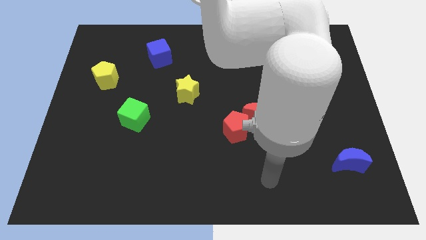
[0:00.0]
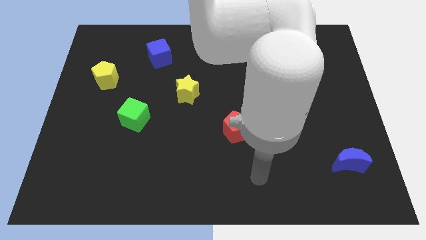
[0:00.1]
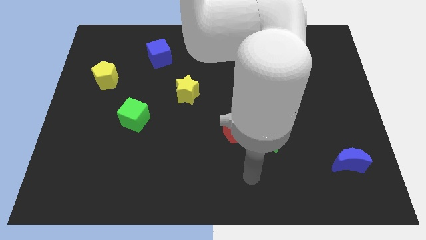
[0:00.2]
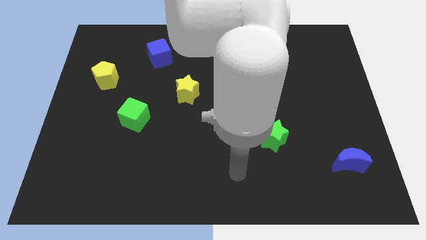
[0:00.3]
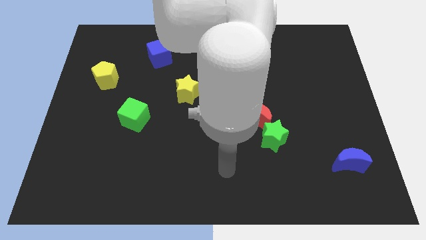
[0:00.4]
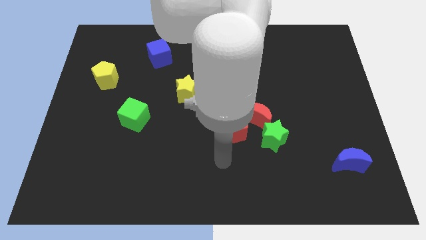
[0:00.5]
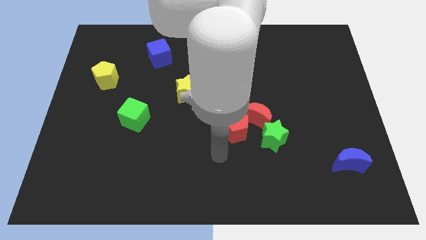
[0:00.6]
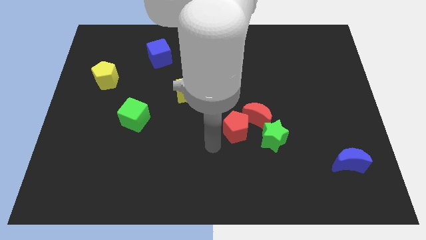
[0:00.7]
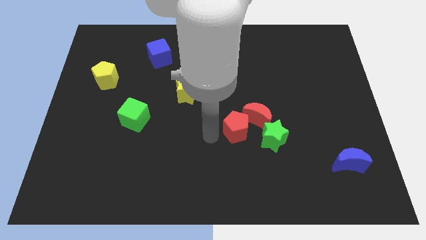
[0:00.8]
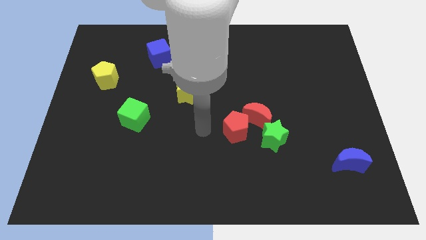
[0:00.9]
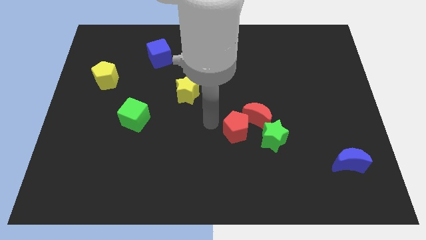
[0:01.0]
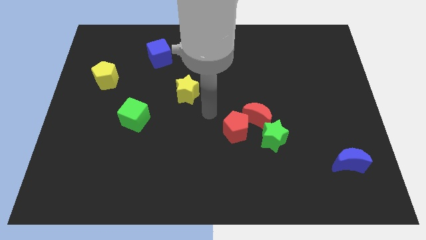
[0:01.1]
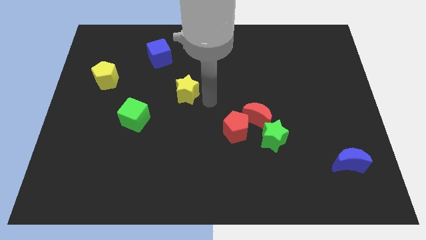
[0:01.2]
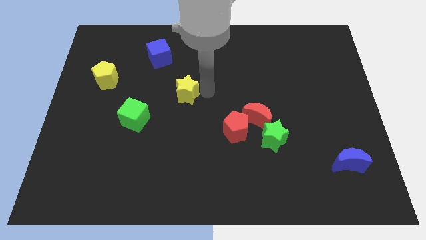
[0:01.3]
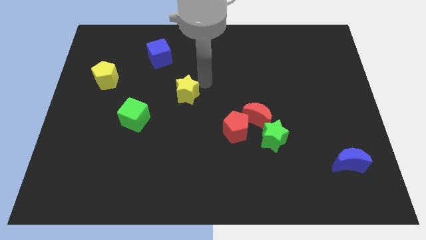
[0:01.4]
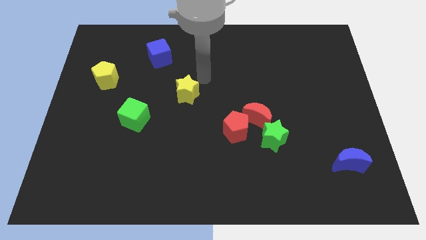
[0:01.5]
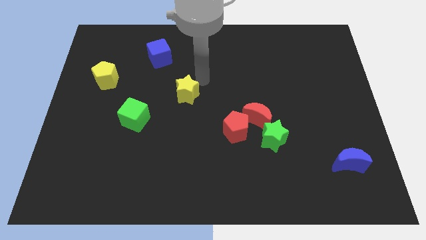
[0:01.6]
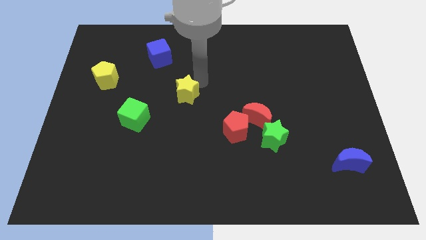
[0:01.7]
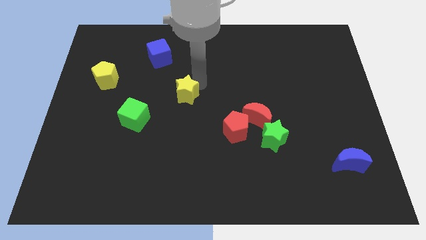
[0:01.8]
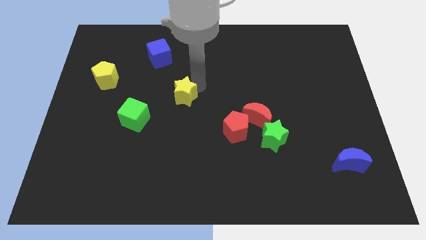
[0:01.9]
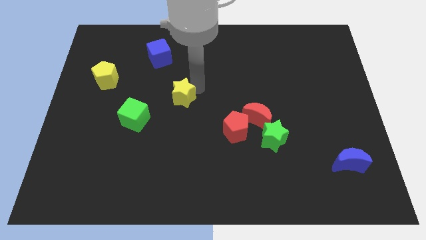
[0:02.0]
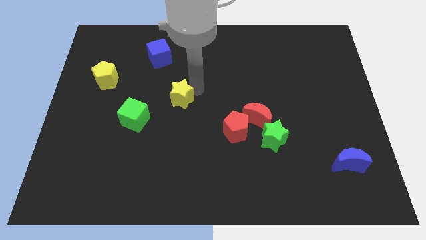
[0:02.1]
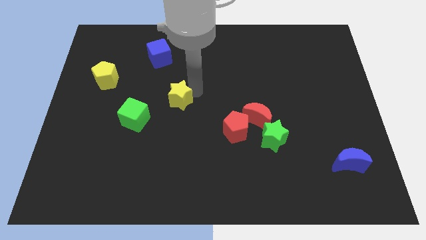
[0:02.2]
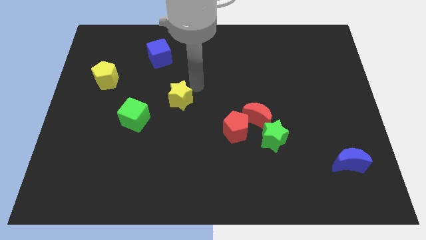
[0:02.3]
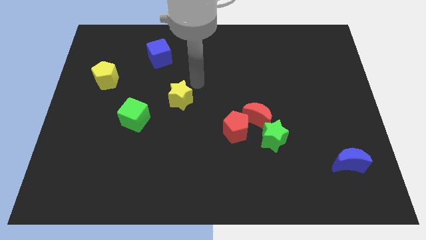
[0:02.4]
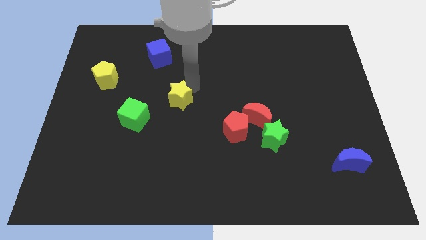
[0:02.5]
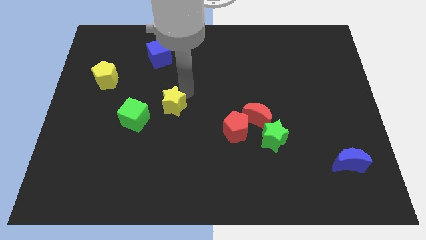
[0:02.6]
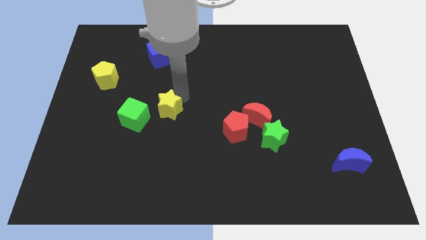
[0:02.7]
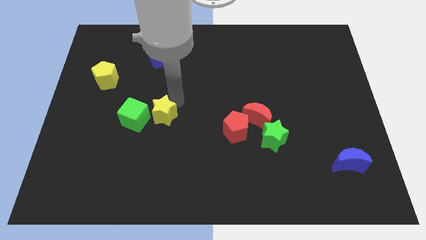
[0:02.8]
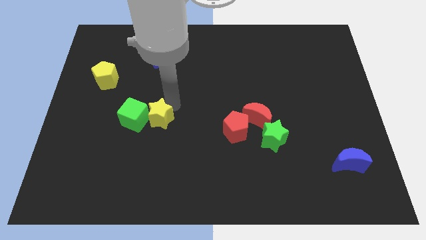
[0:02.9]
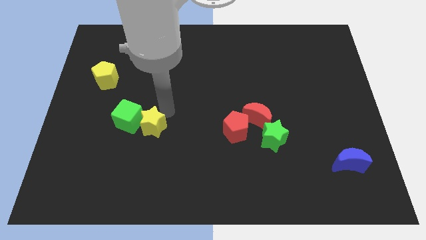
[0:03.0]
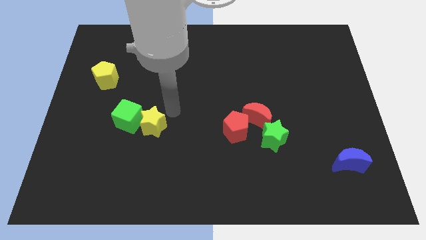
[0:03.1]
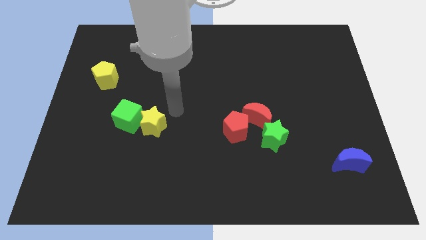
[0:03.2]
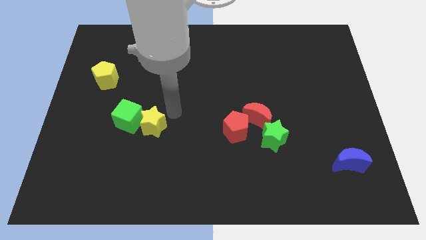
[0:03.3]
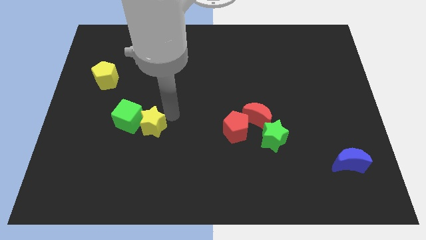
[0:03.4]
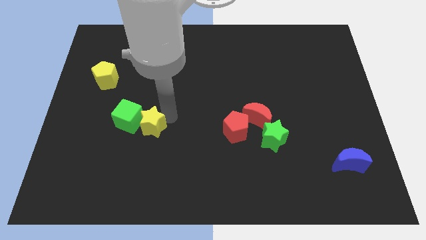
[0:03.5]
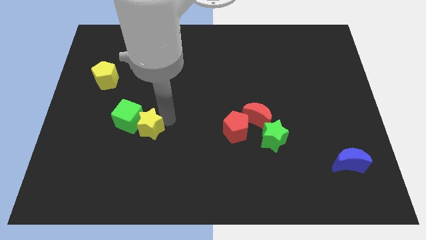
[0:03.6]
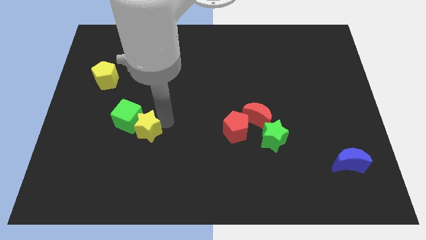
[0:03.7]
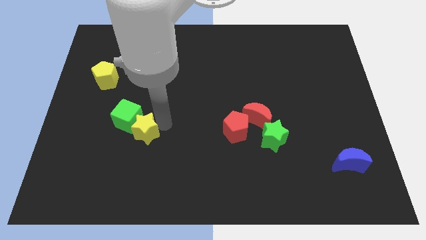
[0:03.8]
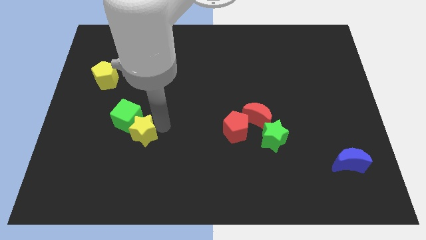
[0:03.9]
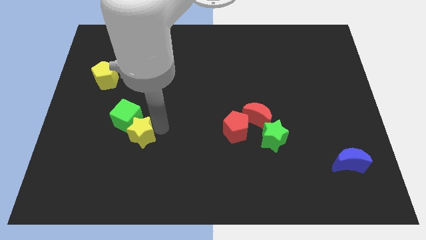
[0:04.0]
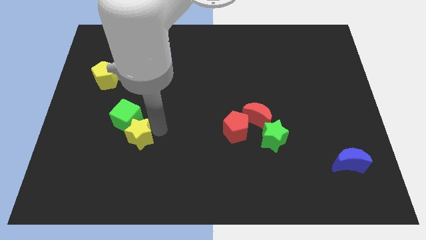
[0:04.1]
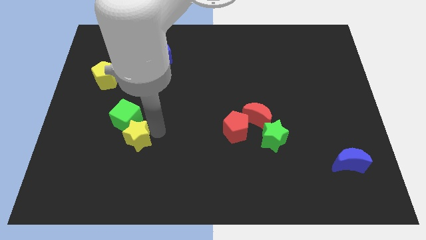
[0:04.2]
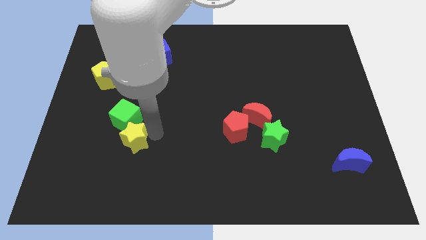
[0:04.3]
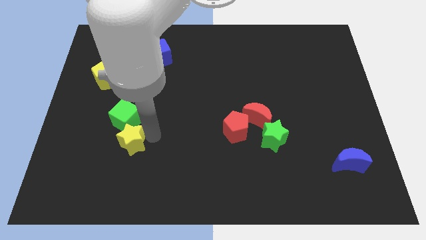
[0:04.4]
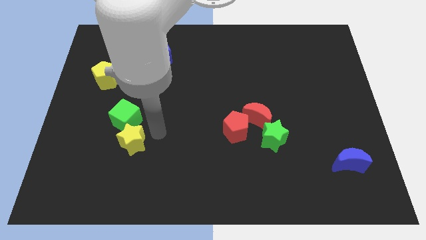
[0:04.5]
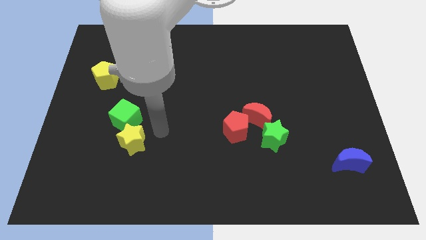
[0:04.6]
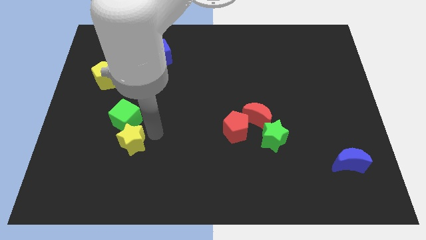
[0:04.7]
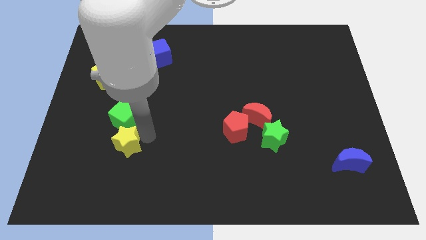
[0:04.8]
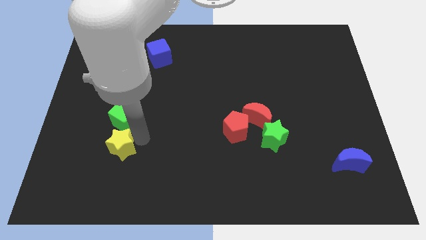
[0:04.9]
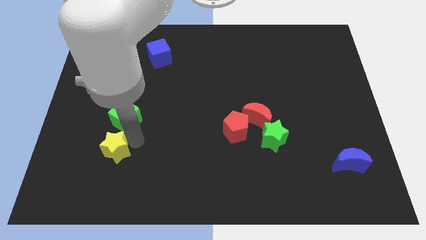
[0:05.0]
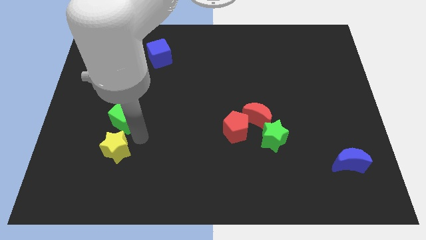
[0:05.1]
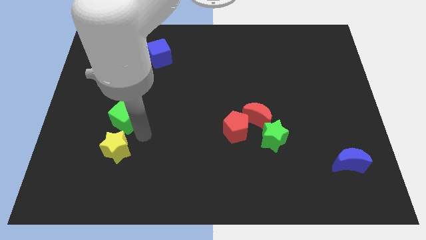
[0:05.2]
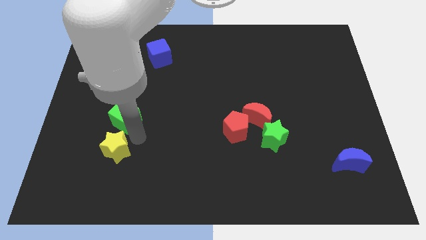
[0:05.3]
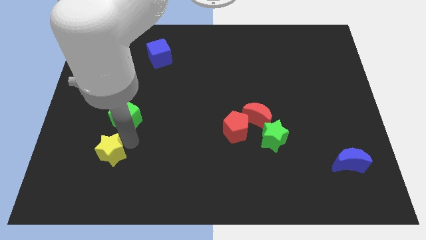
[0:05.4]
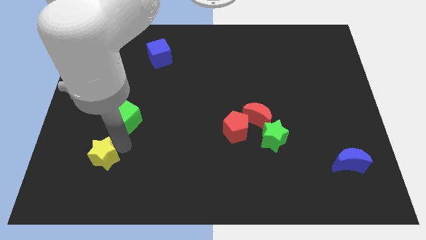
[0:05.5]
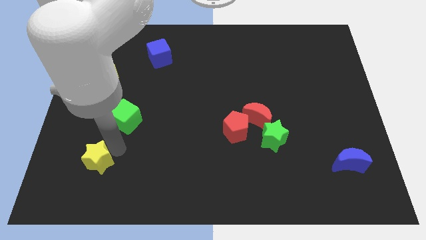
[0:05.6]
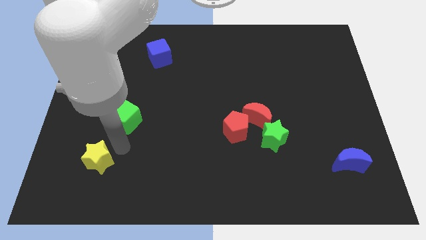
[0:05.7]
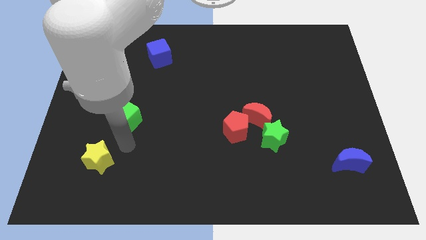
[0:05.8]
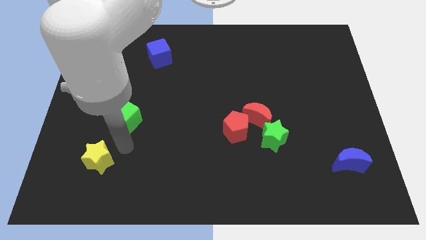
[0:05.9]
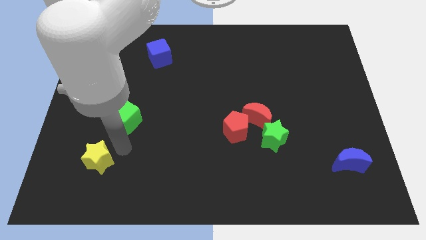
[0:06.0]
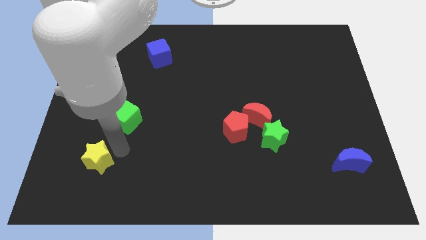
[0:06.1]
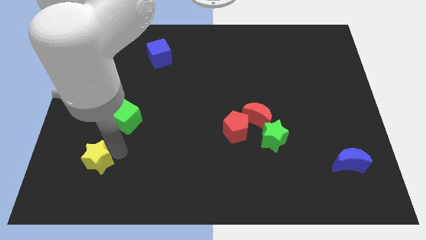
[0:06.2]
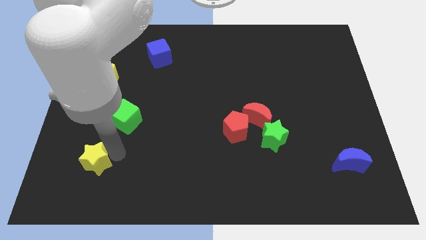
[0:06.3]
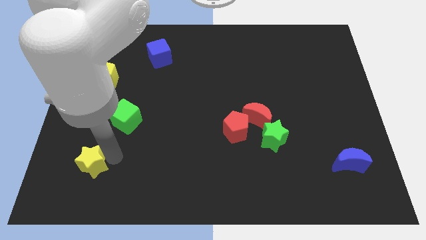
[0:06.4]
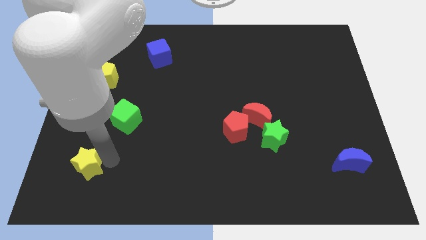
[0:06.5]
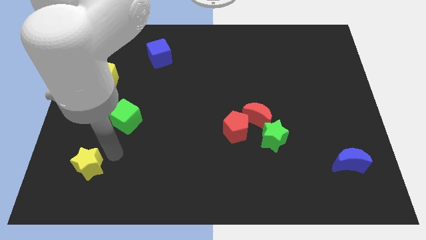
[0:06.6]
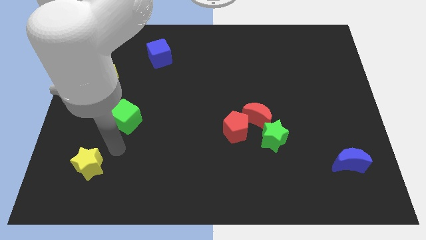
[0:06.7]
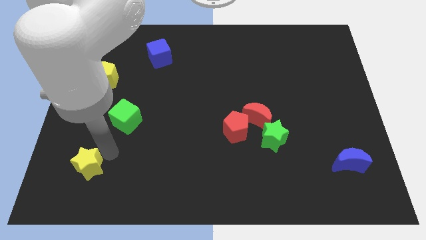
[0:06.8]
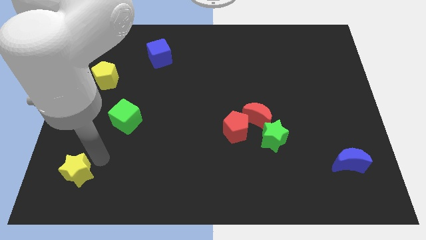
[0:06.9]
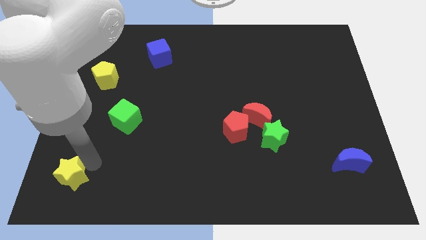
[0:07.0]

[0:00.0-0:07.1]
put the yellow star to the bottom left of the board
